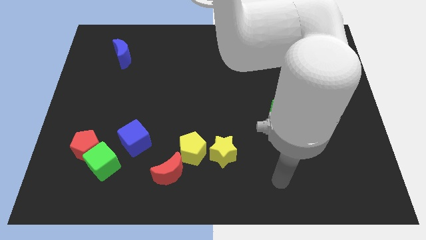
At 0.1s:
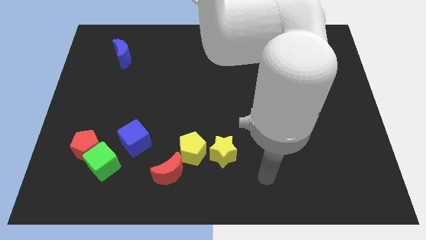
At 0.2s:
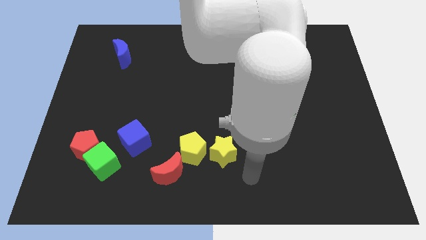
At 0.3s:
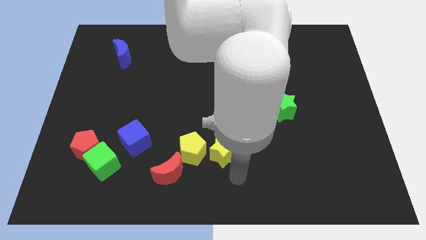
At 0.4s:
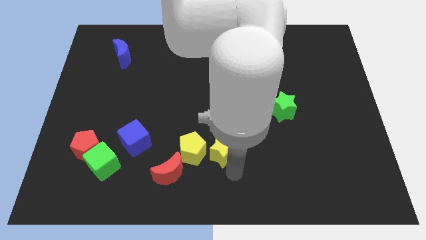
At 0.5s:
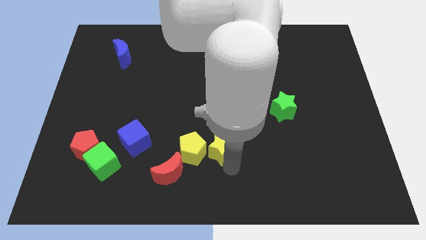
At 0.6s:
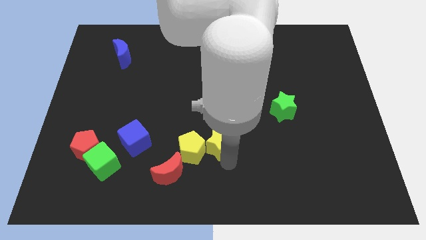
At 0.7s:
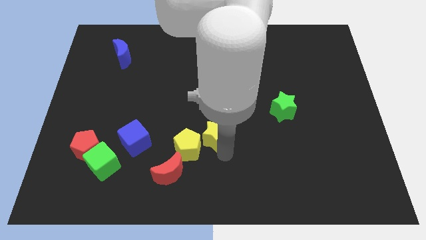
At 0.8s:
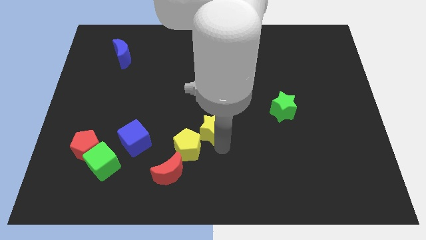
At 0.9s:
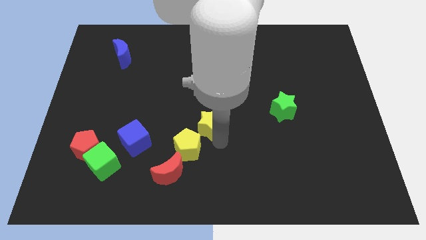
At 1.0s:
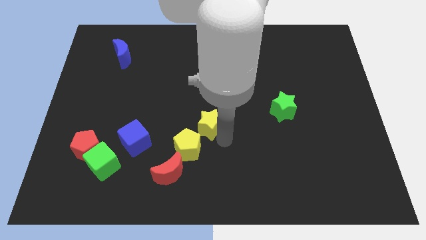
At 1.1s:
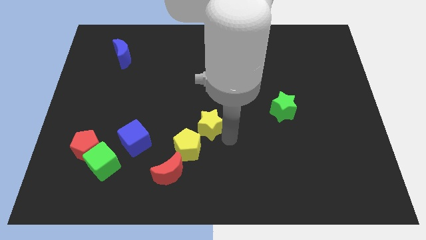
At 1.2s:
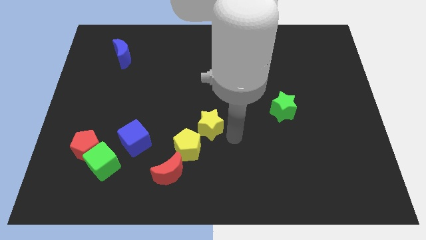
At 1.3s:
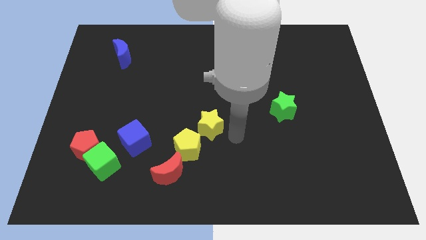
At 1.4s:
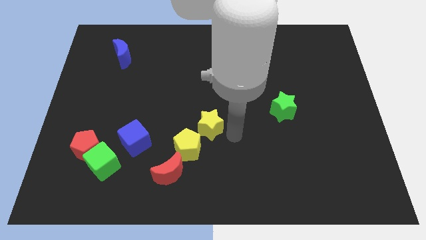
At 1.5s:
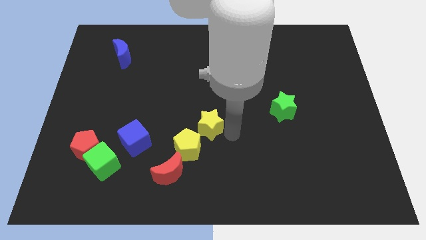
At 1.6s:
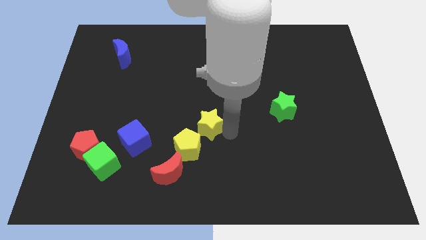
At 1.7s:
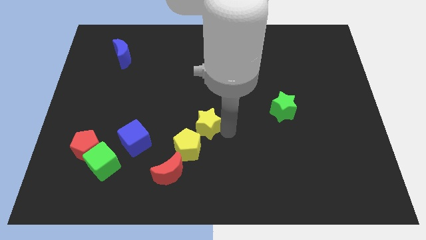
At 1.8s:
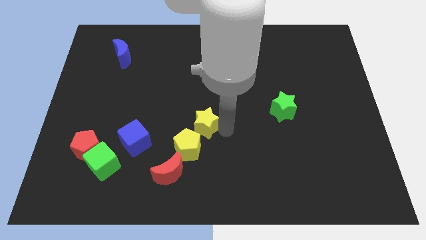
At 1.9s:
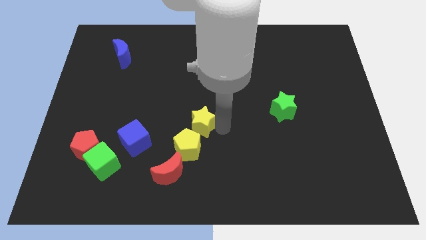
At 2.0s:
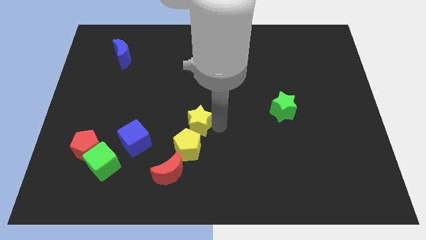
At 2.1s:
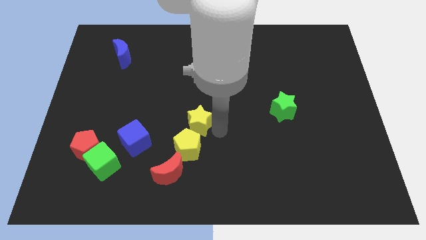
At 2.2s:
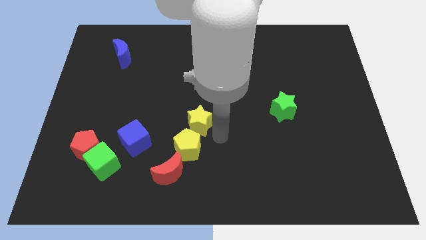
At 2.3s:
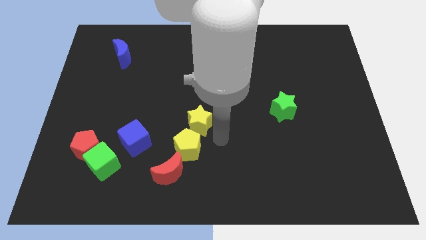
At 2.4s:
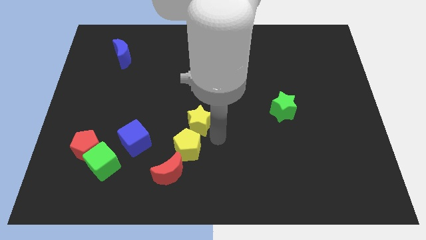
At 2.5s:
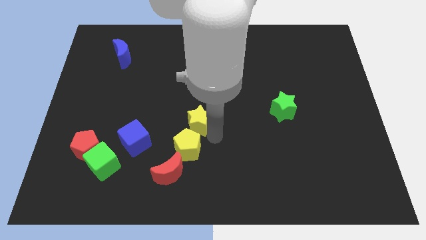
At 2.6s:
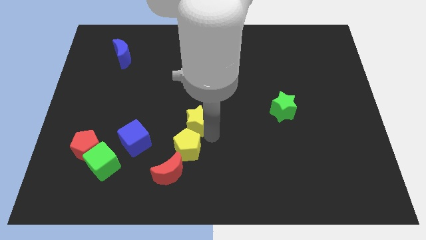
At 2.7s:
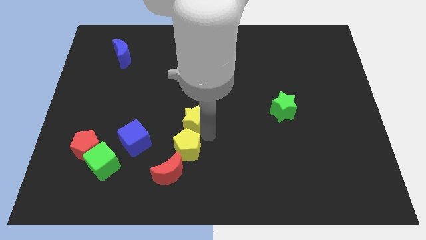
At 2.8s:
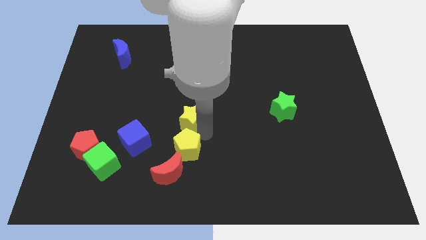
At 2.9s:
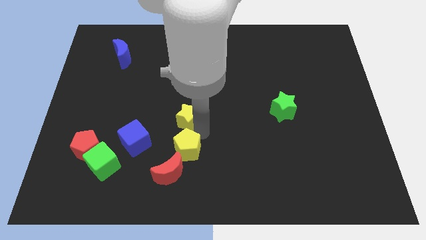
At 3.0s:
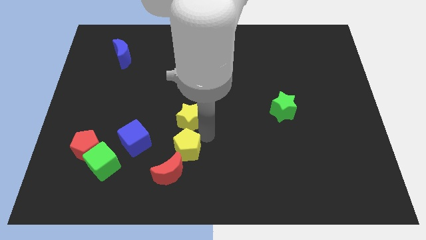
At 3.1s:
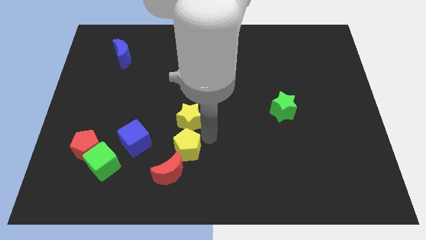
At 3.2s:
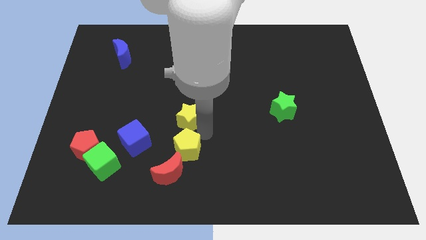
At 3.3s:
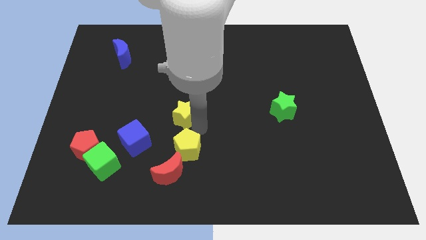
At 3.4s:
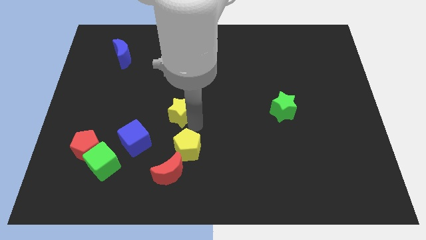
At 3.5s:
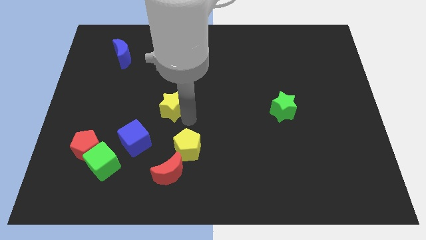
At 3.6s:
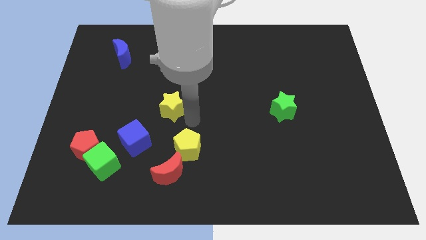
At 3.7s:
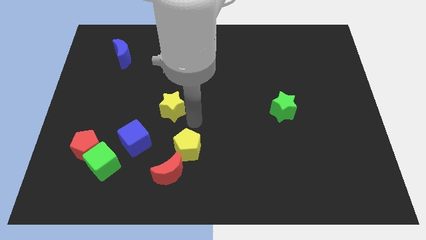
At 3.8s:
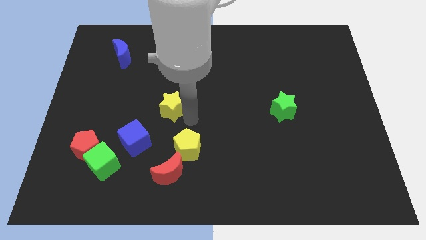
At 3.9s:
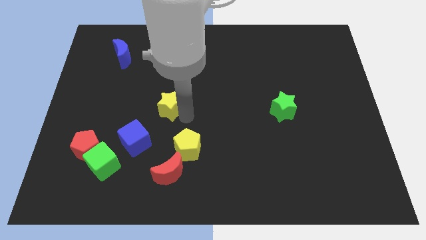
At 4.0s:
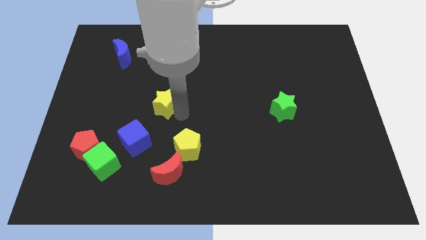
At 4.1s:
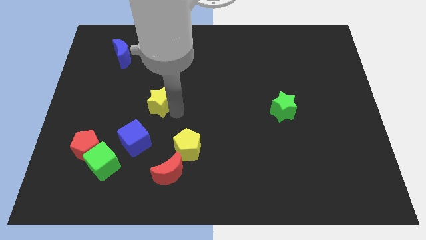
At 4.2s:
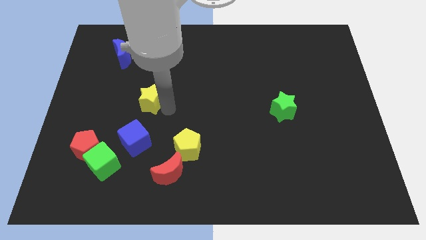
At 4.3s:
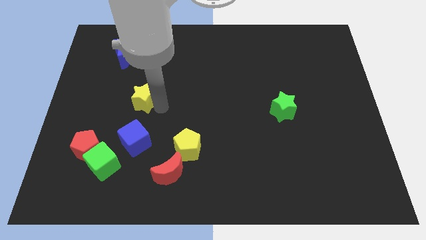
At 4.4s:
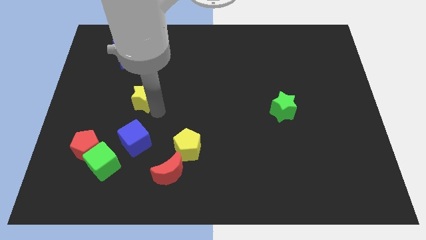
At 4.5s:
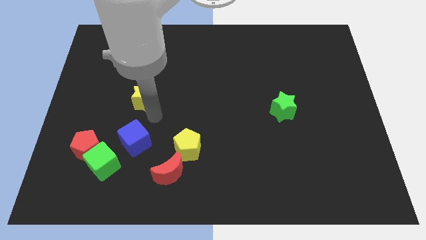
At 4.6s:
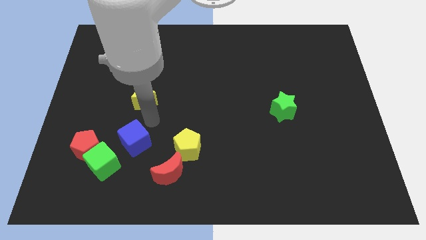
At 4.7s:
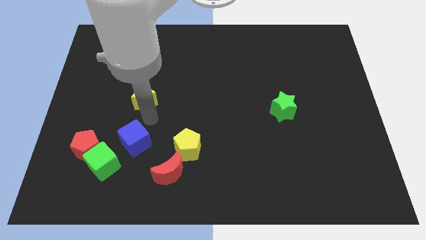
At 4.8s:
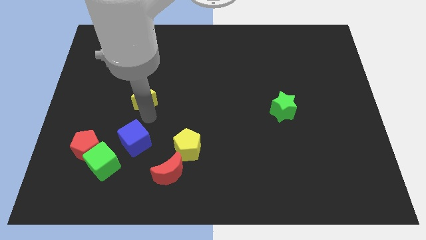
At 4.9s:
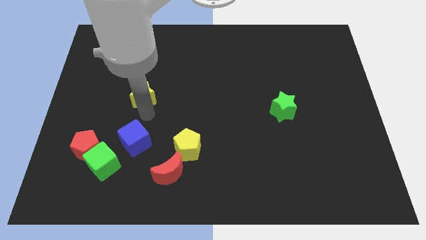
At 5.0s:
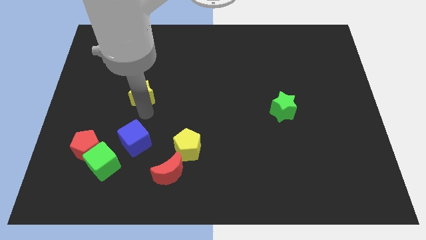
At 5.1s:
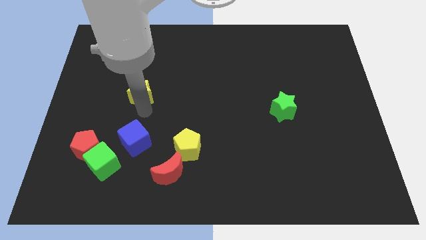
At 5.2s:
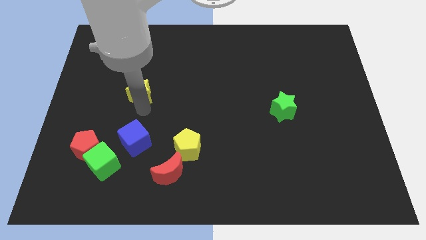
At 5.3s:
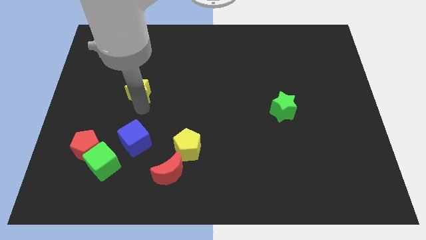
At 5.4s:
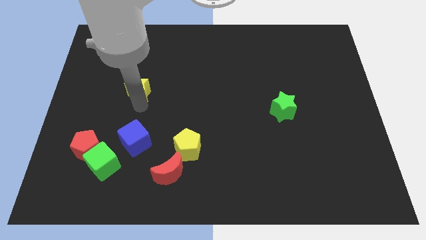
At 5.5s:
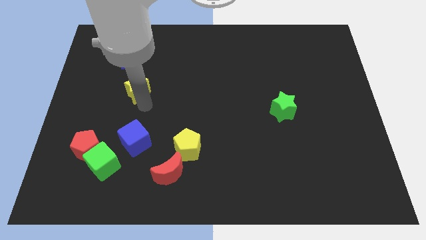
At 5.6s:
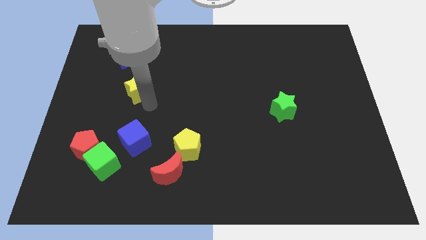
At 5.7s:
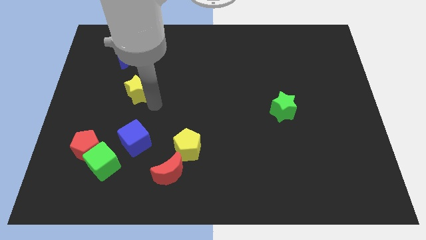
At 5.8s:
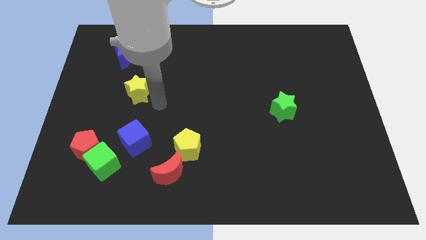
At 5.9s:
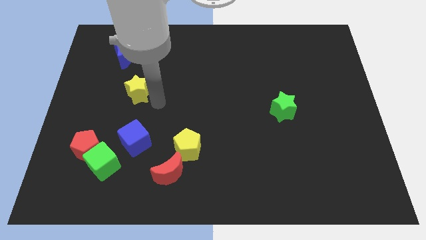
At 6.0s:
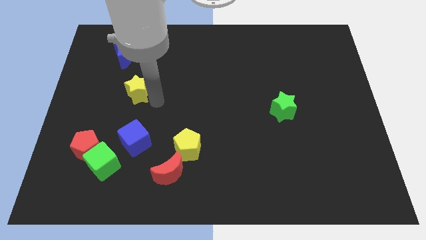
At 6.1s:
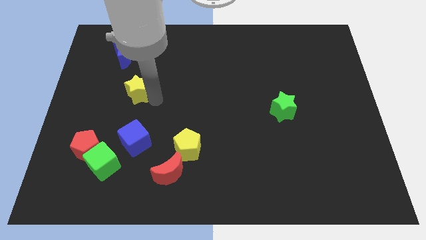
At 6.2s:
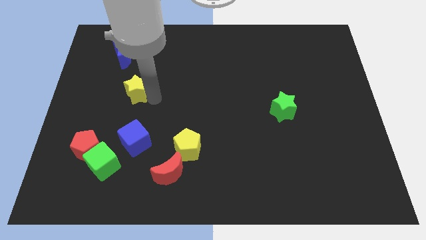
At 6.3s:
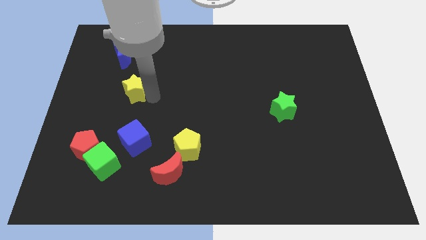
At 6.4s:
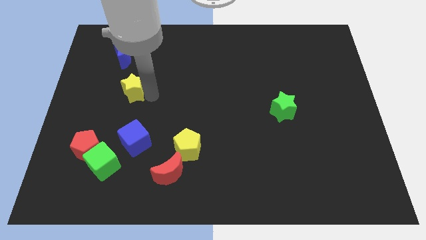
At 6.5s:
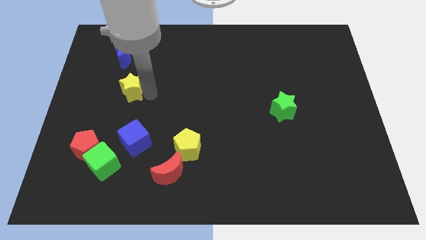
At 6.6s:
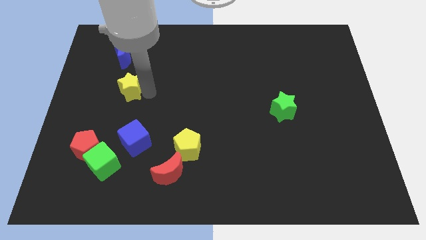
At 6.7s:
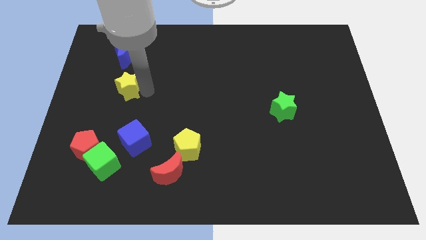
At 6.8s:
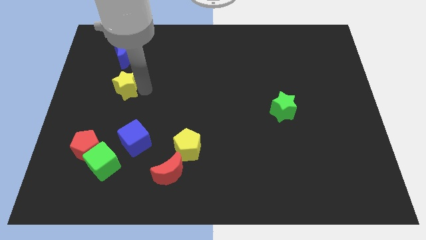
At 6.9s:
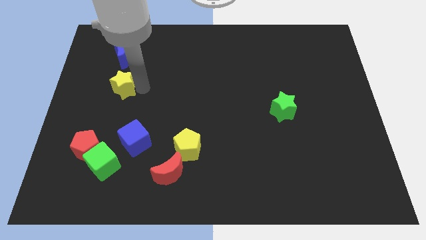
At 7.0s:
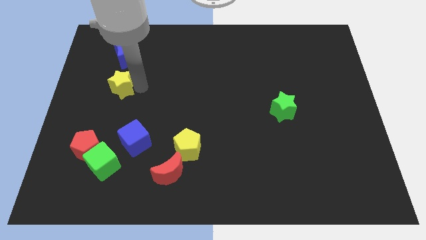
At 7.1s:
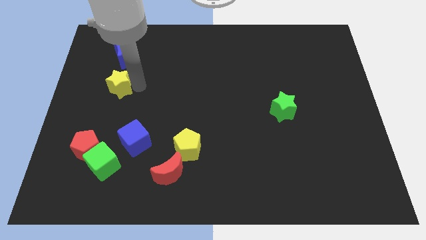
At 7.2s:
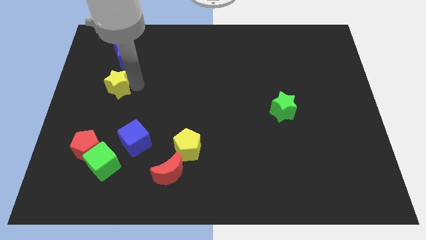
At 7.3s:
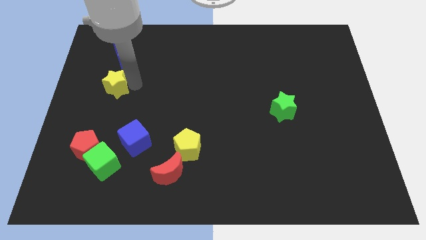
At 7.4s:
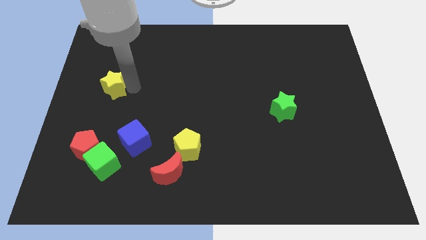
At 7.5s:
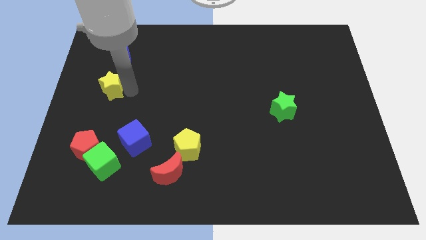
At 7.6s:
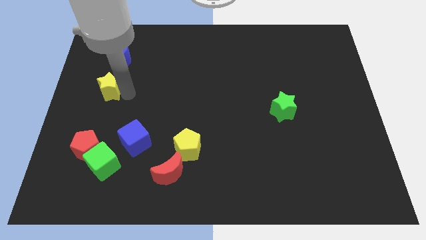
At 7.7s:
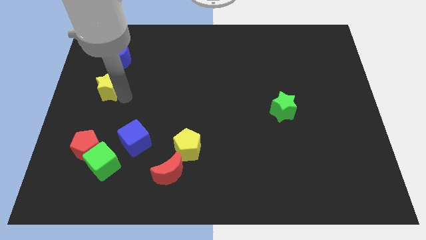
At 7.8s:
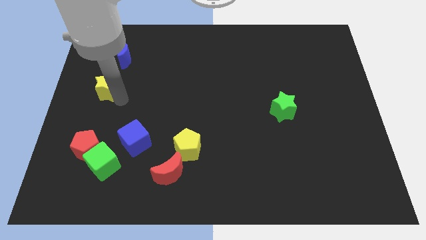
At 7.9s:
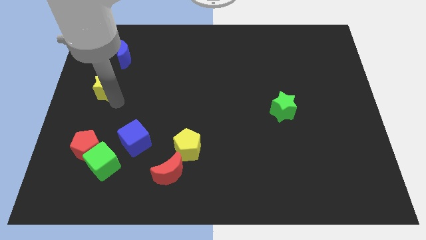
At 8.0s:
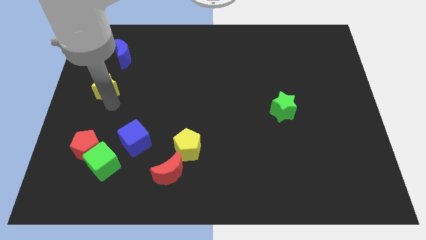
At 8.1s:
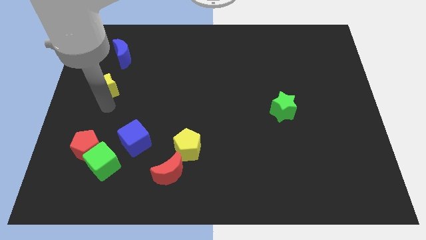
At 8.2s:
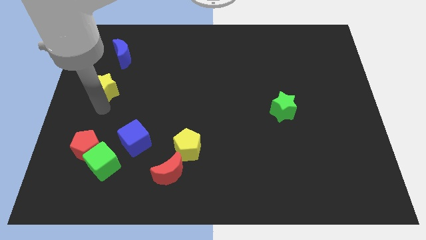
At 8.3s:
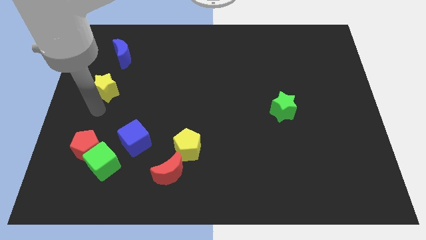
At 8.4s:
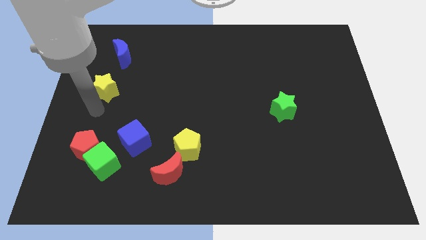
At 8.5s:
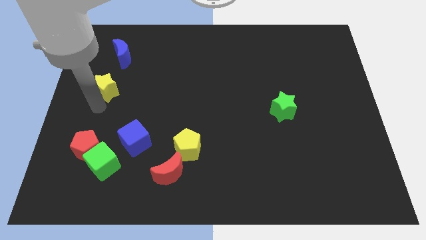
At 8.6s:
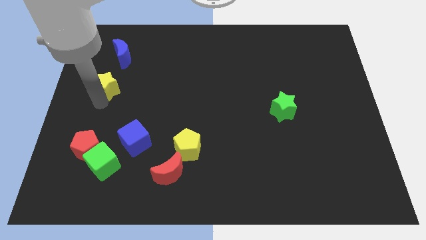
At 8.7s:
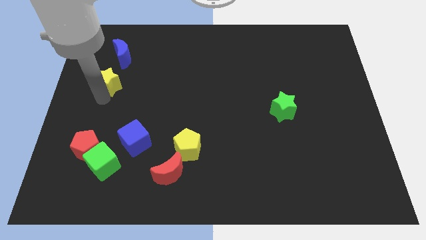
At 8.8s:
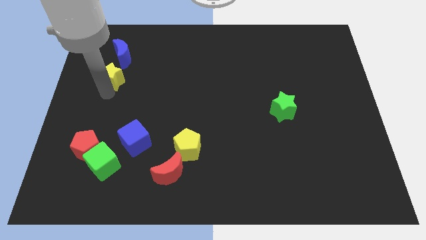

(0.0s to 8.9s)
slide the yellow star diagonally down and to the left of the blue moon
